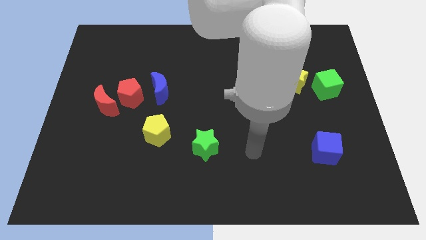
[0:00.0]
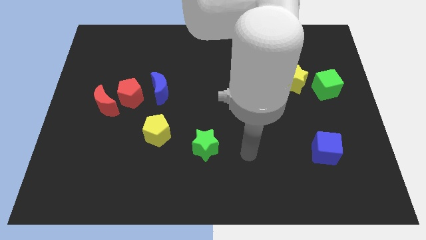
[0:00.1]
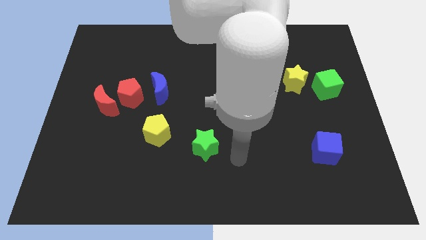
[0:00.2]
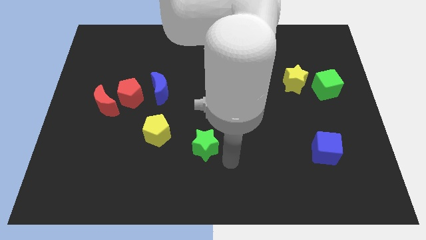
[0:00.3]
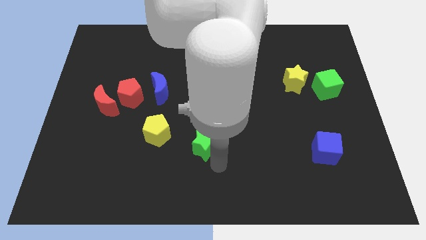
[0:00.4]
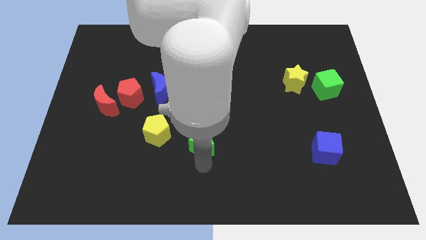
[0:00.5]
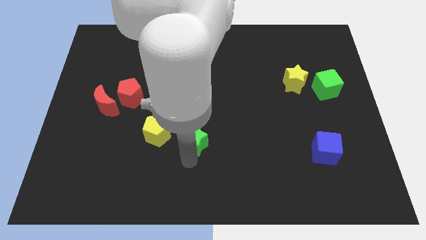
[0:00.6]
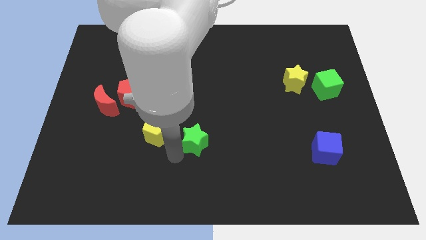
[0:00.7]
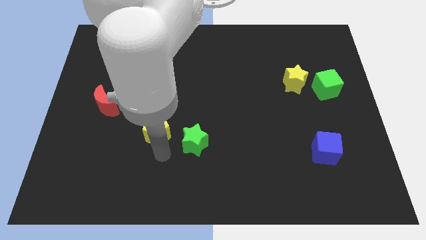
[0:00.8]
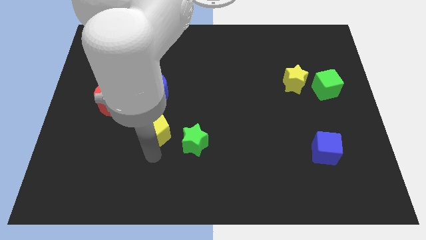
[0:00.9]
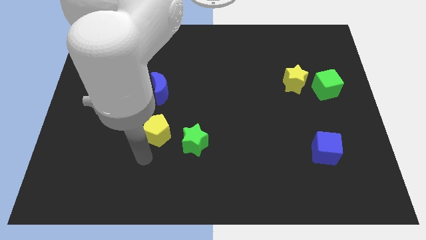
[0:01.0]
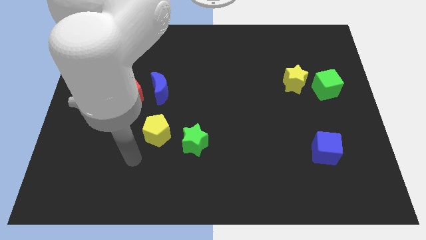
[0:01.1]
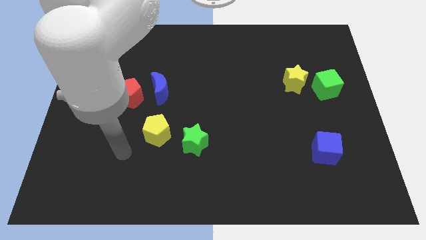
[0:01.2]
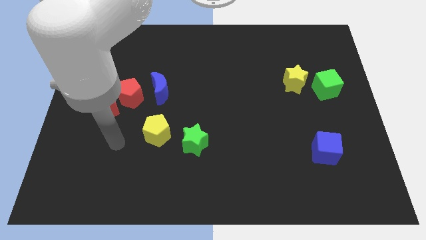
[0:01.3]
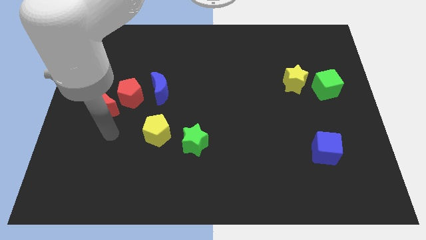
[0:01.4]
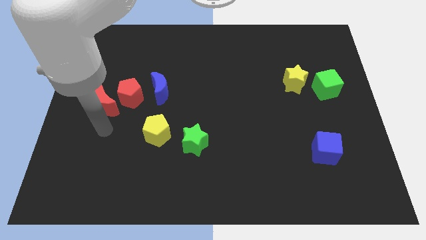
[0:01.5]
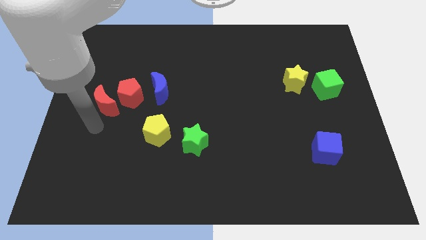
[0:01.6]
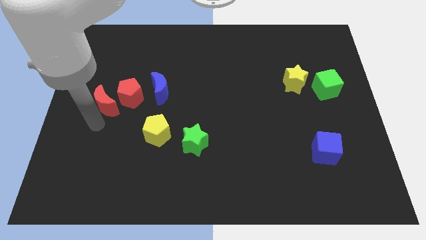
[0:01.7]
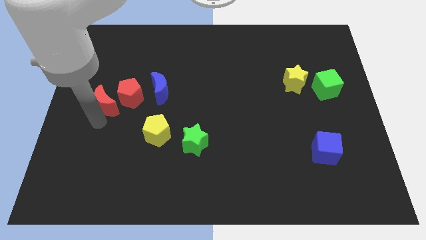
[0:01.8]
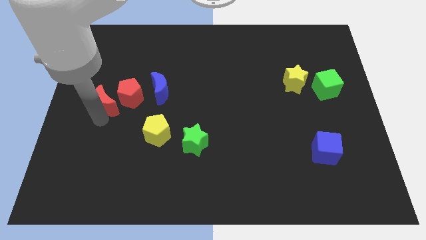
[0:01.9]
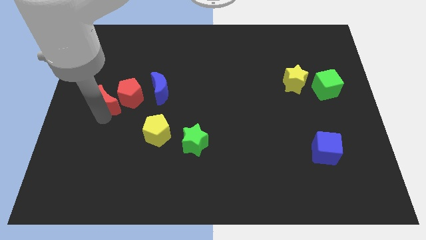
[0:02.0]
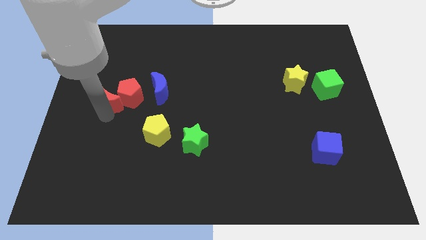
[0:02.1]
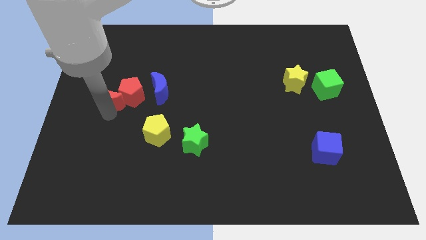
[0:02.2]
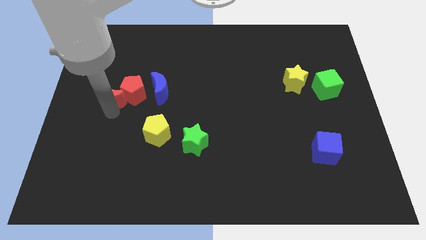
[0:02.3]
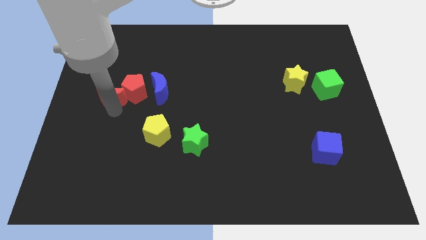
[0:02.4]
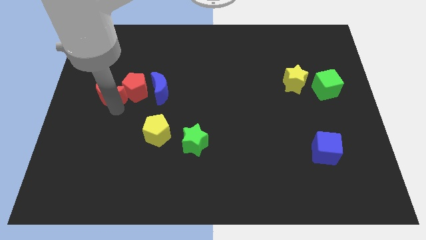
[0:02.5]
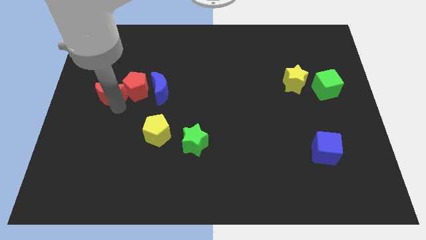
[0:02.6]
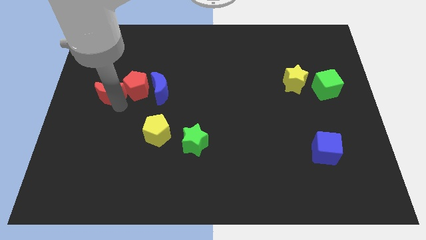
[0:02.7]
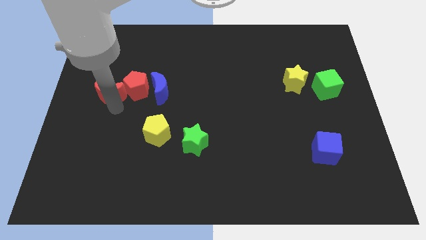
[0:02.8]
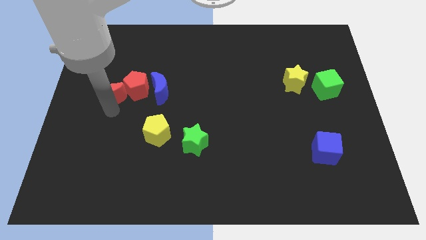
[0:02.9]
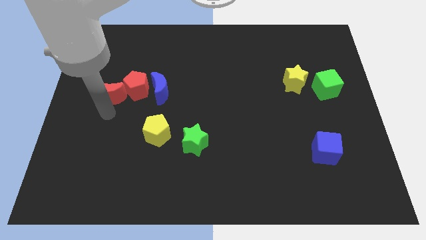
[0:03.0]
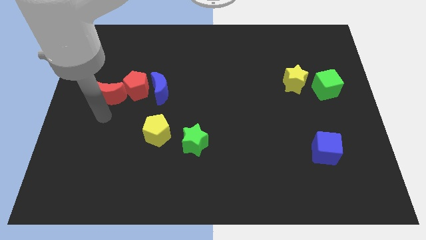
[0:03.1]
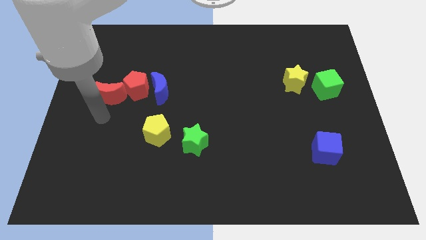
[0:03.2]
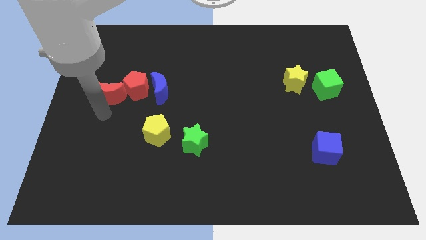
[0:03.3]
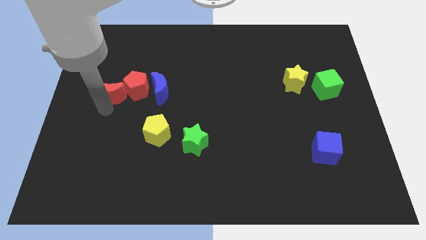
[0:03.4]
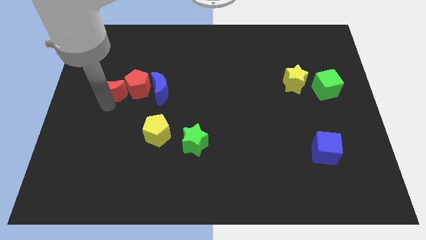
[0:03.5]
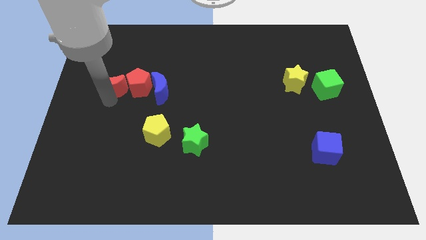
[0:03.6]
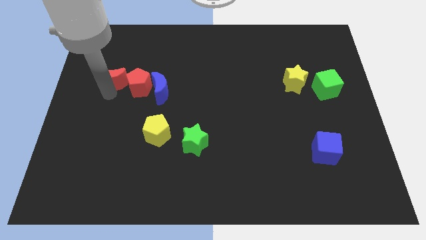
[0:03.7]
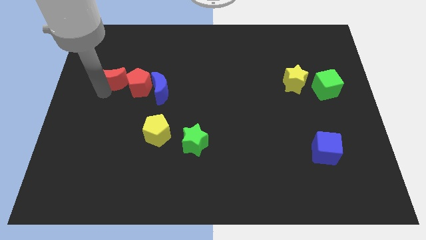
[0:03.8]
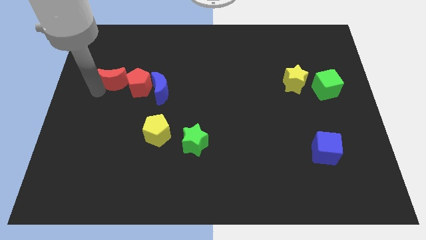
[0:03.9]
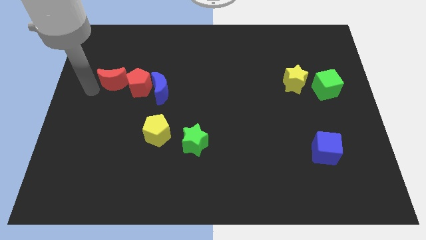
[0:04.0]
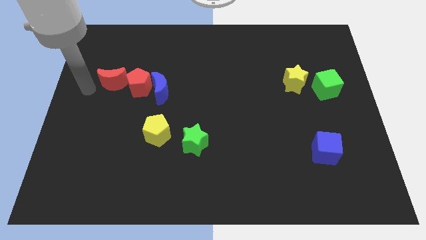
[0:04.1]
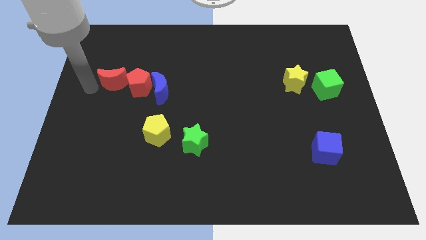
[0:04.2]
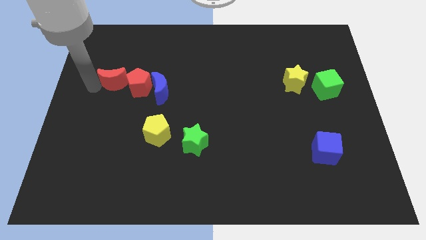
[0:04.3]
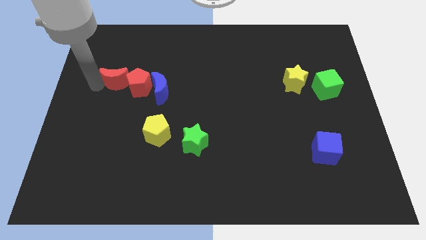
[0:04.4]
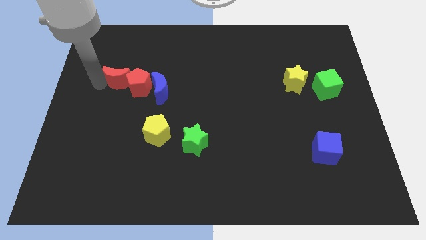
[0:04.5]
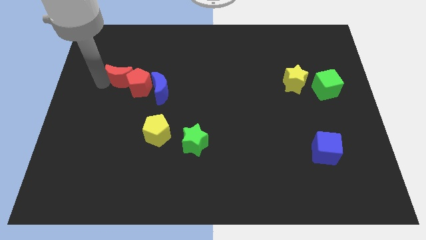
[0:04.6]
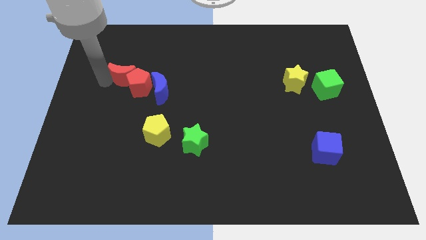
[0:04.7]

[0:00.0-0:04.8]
slide the red moon to the top left side of the blue moon

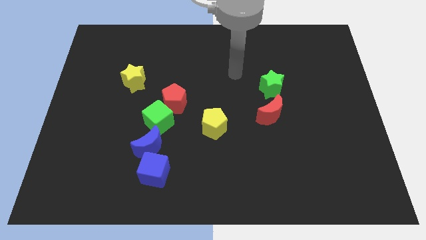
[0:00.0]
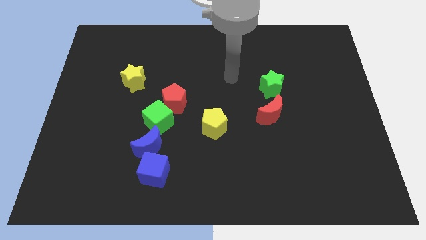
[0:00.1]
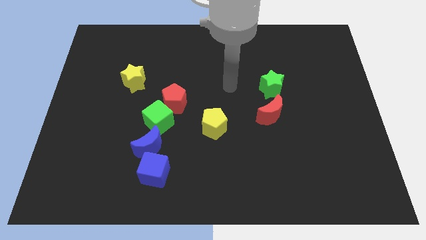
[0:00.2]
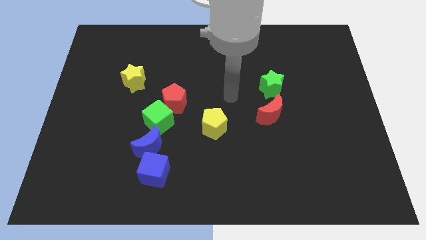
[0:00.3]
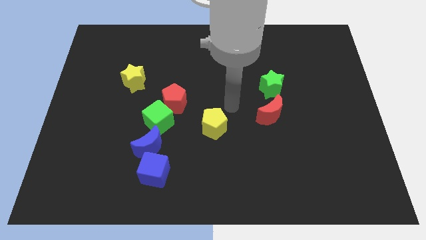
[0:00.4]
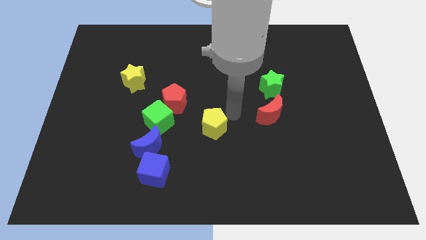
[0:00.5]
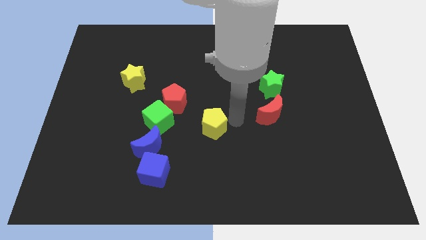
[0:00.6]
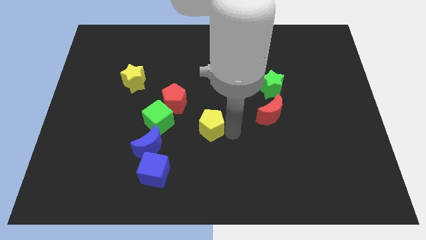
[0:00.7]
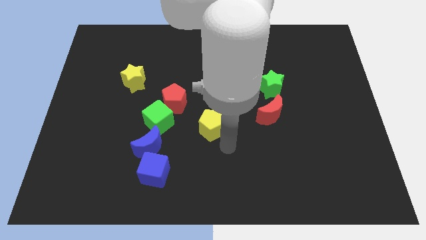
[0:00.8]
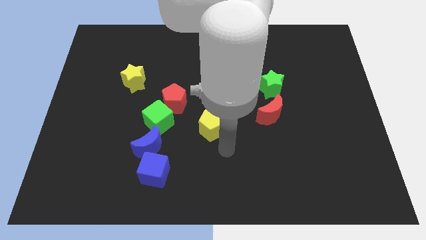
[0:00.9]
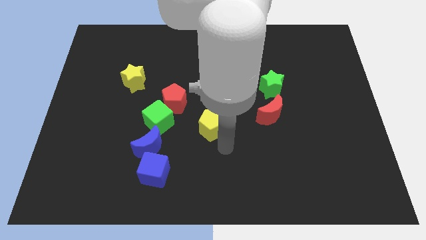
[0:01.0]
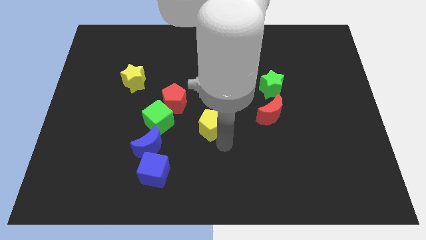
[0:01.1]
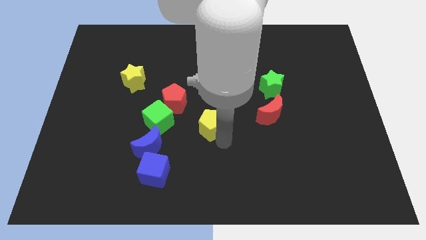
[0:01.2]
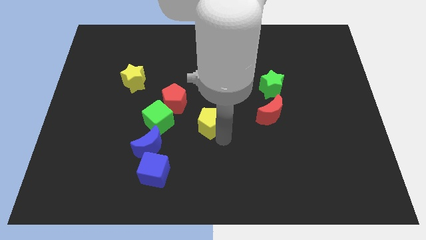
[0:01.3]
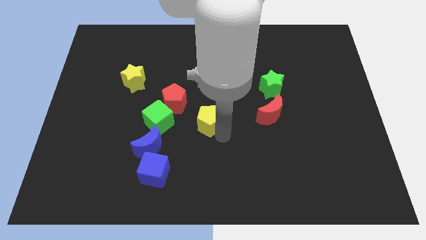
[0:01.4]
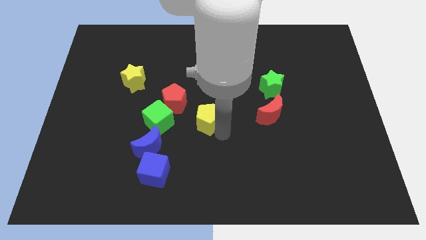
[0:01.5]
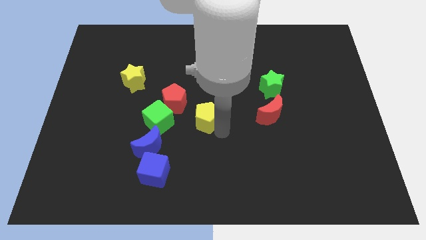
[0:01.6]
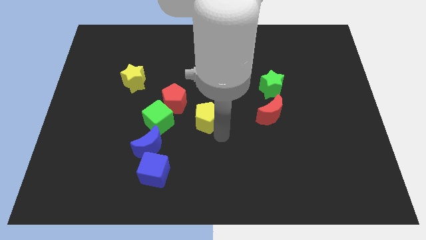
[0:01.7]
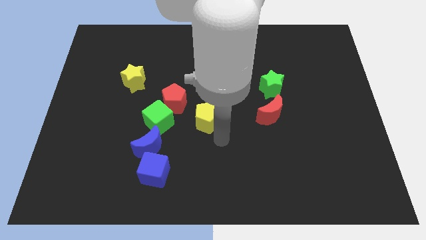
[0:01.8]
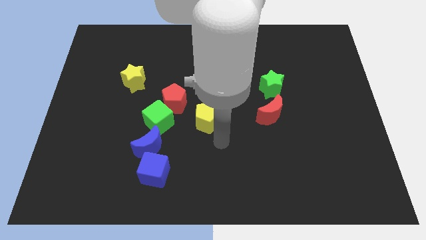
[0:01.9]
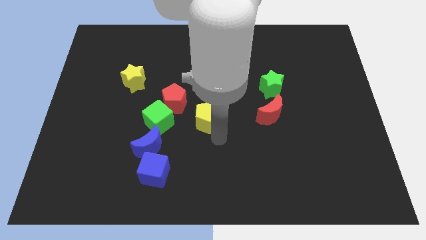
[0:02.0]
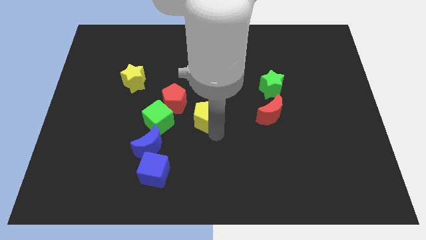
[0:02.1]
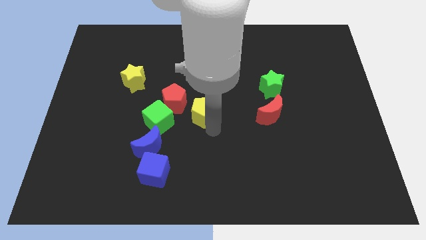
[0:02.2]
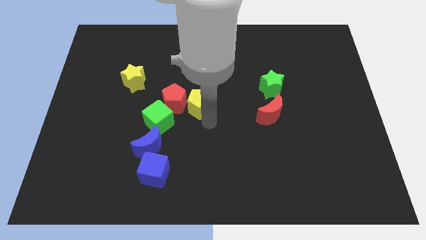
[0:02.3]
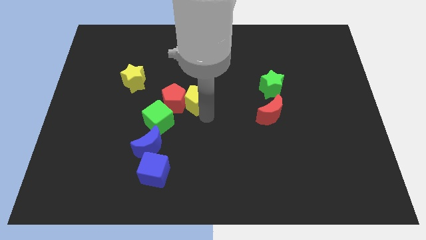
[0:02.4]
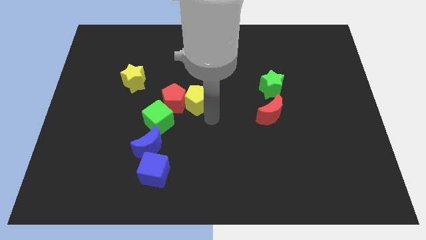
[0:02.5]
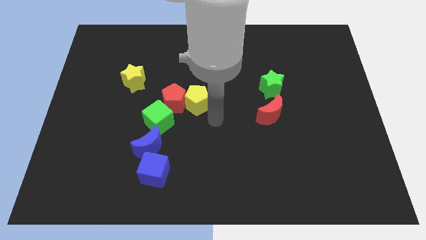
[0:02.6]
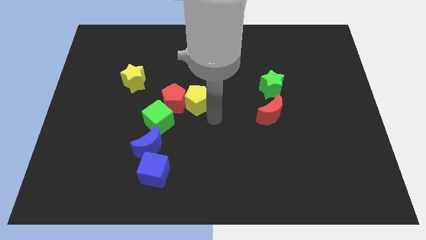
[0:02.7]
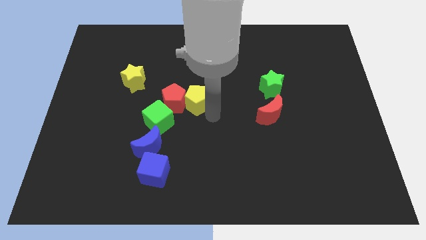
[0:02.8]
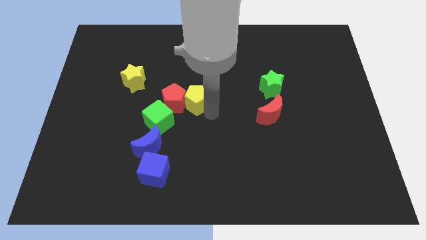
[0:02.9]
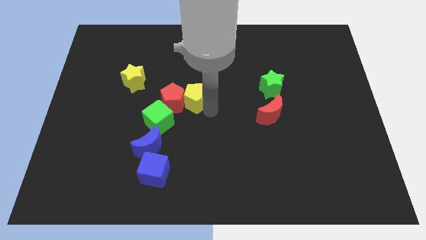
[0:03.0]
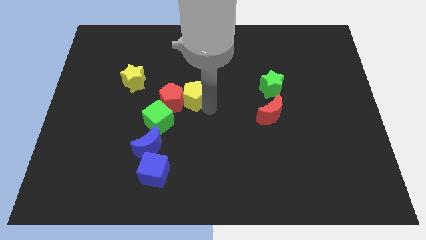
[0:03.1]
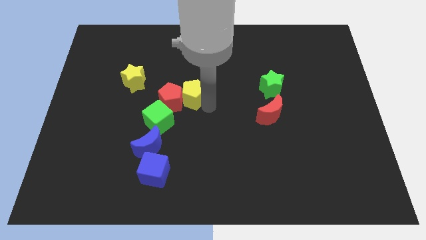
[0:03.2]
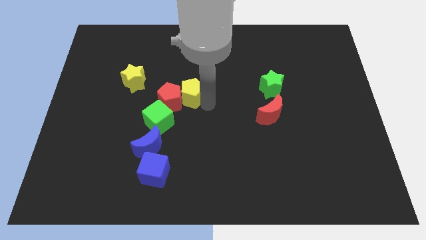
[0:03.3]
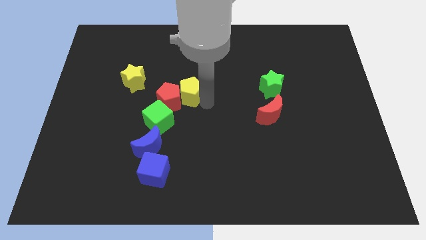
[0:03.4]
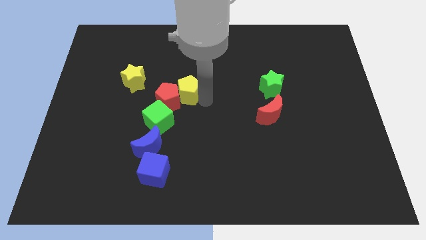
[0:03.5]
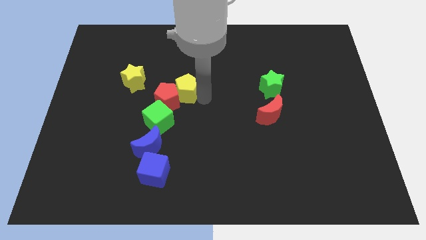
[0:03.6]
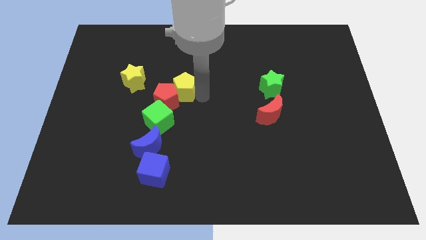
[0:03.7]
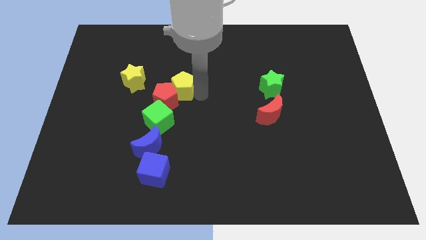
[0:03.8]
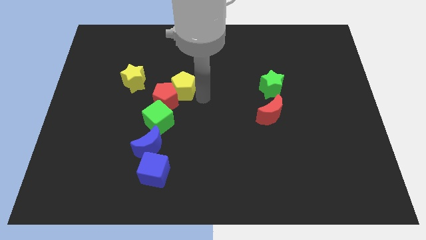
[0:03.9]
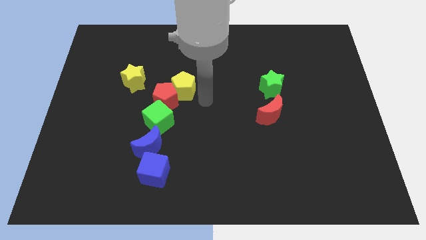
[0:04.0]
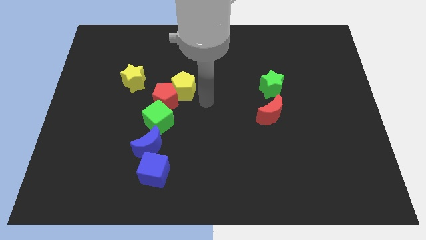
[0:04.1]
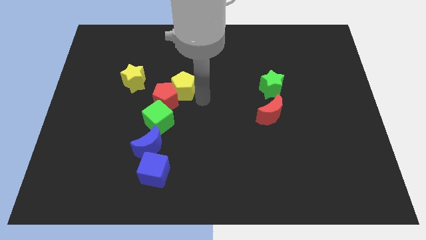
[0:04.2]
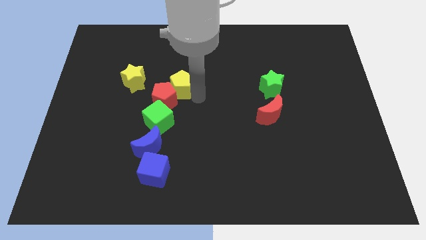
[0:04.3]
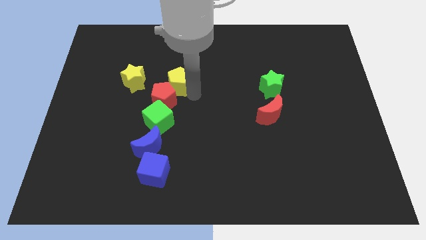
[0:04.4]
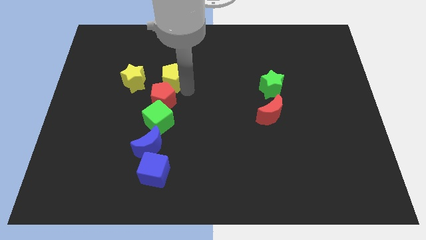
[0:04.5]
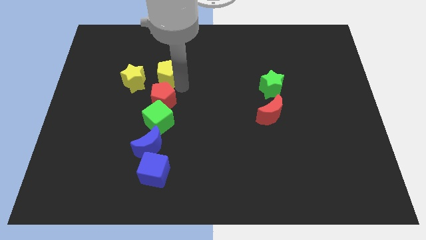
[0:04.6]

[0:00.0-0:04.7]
put the yellow pentagon diagonally up and to the right of the yellow star
